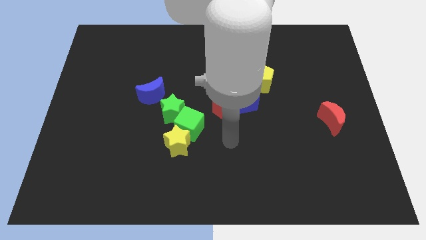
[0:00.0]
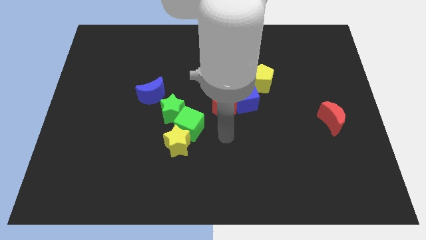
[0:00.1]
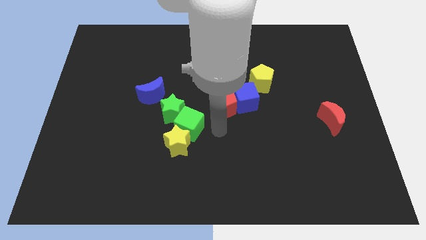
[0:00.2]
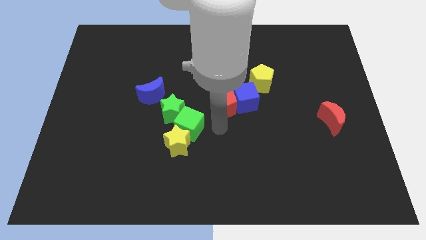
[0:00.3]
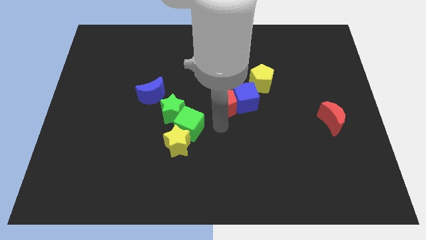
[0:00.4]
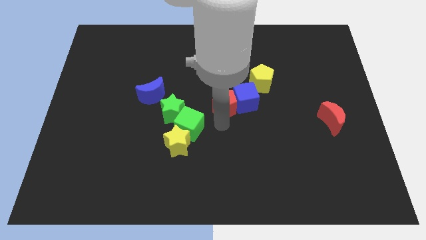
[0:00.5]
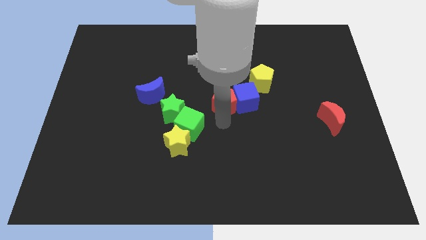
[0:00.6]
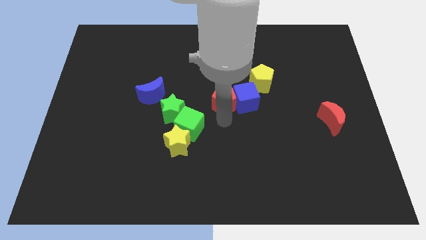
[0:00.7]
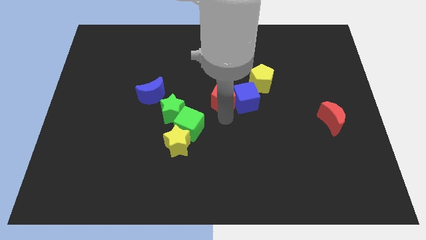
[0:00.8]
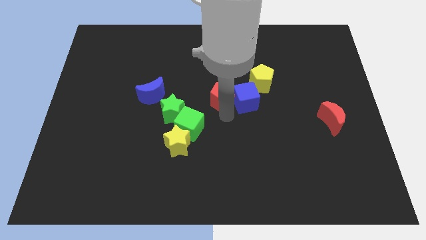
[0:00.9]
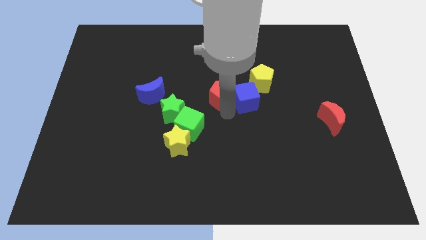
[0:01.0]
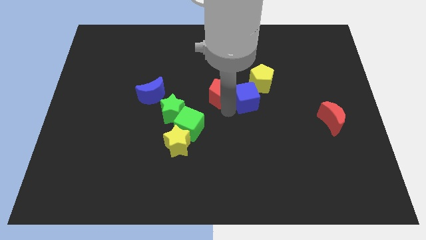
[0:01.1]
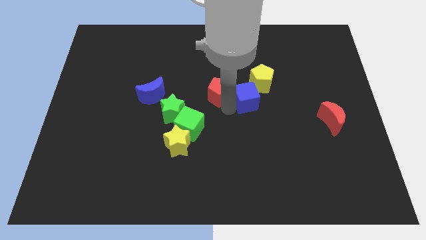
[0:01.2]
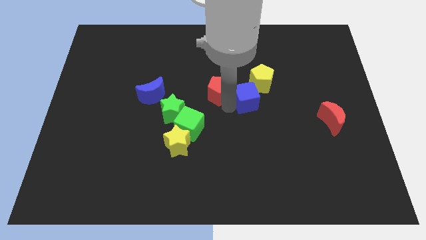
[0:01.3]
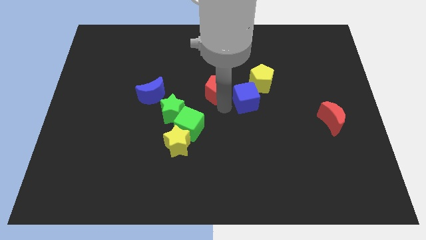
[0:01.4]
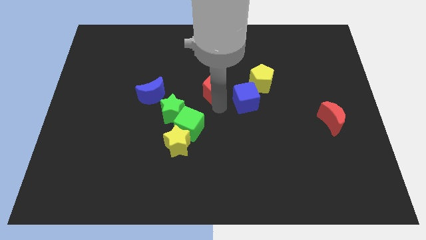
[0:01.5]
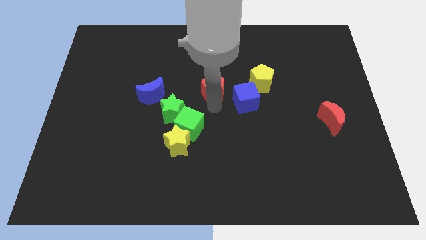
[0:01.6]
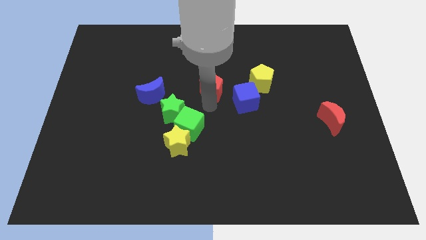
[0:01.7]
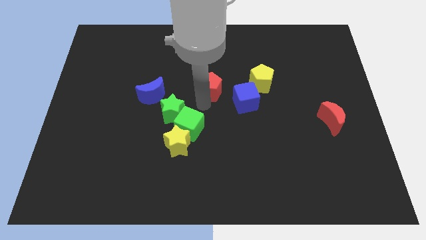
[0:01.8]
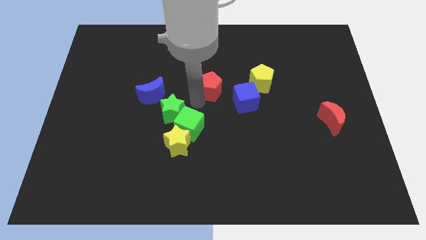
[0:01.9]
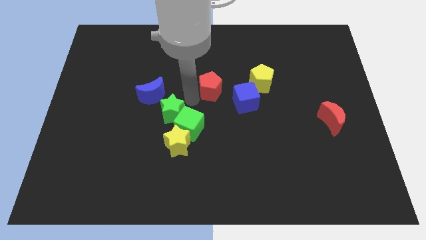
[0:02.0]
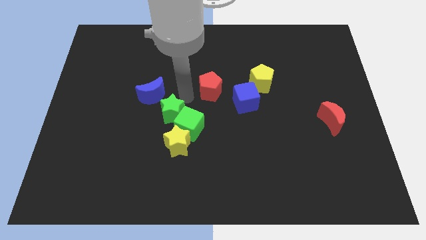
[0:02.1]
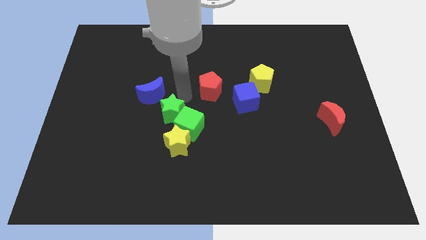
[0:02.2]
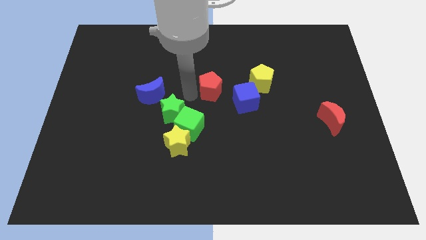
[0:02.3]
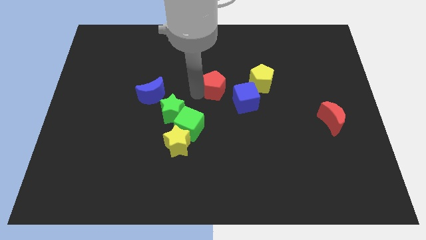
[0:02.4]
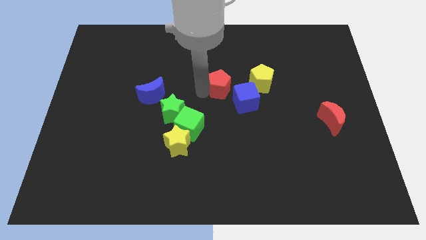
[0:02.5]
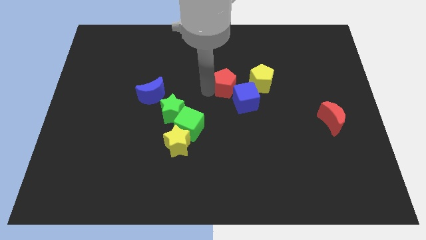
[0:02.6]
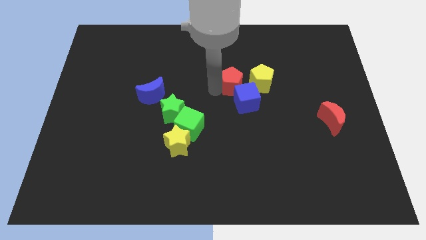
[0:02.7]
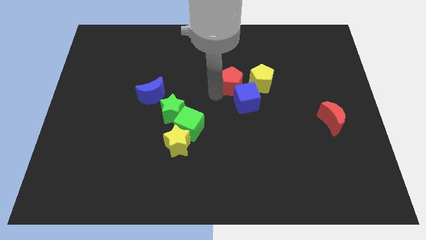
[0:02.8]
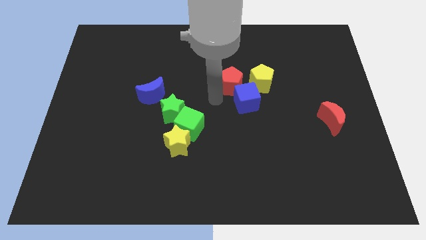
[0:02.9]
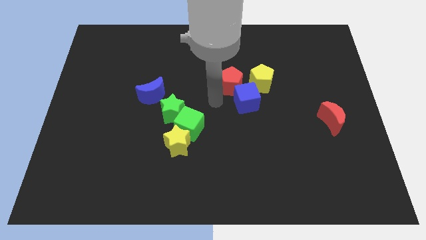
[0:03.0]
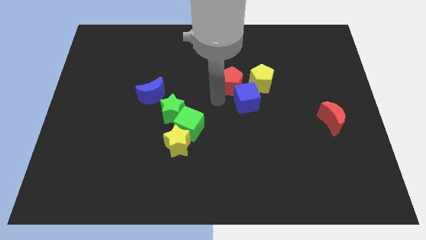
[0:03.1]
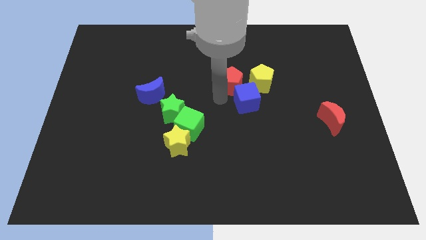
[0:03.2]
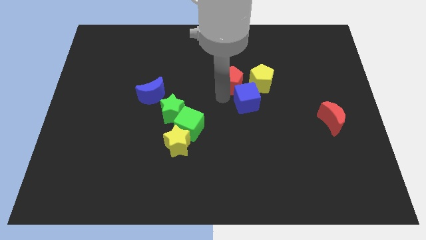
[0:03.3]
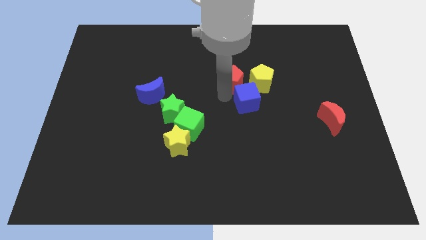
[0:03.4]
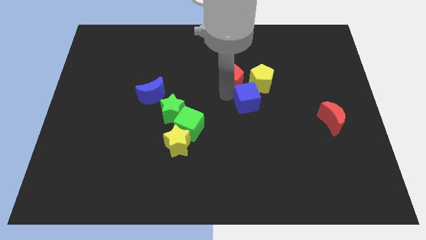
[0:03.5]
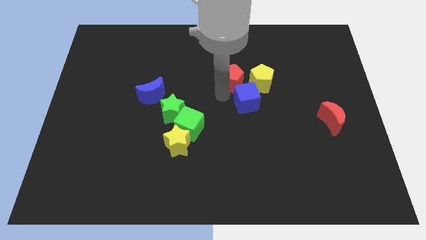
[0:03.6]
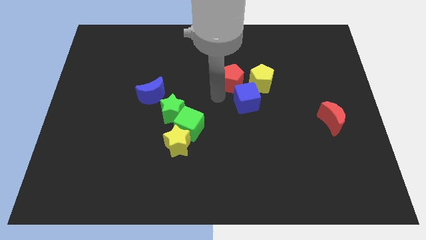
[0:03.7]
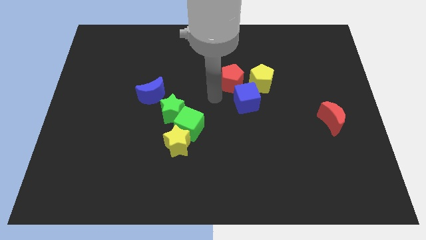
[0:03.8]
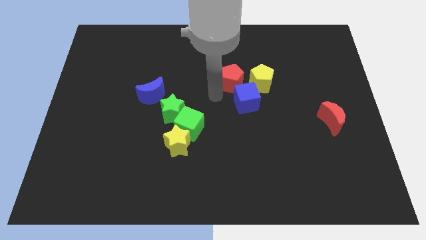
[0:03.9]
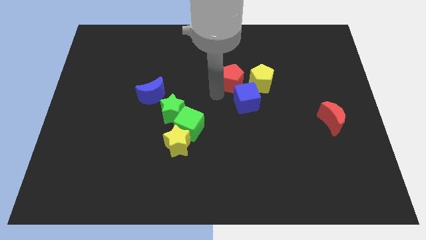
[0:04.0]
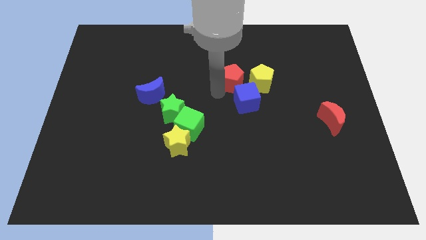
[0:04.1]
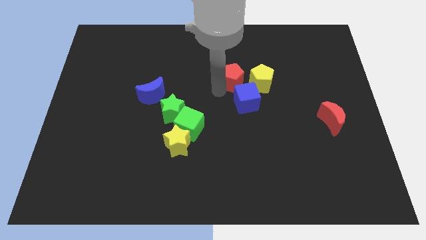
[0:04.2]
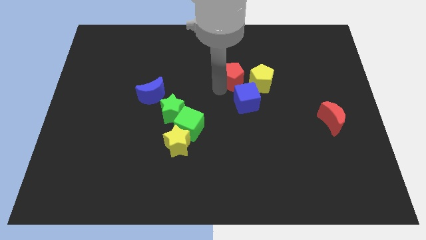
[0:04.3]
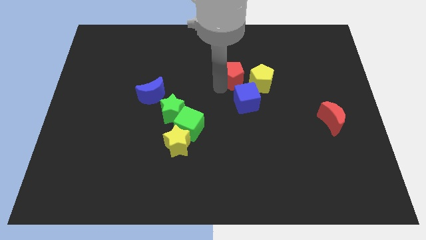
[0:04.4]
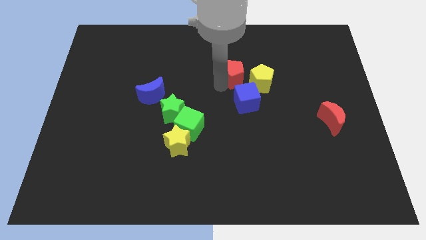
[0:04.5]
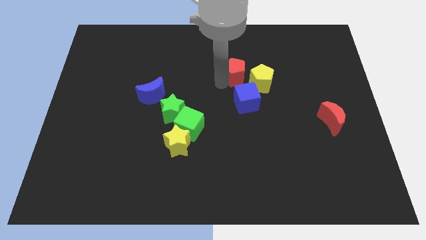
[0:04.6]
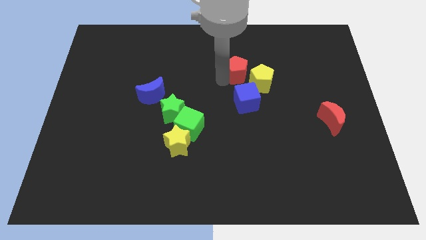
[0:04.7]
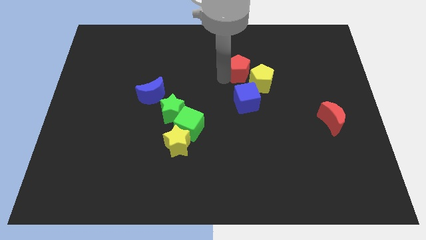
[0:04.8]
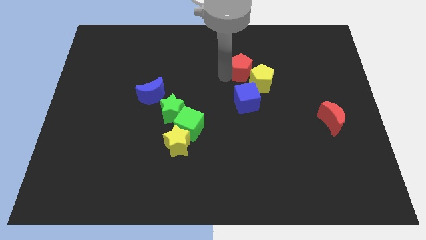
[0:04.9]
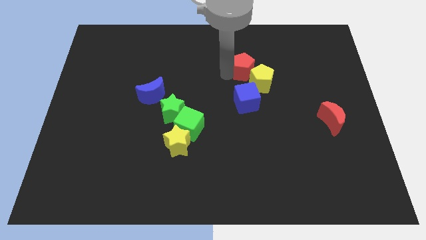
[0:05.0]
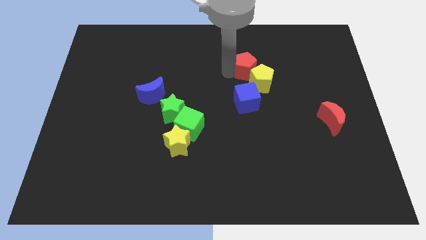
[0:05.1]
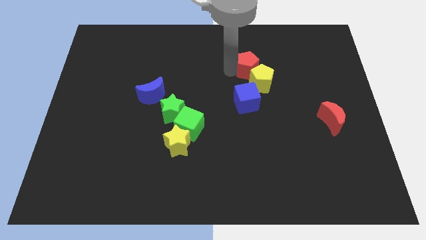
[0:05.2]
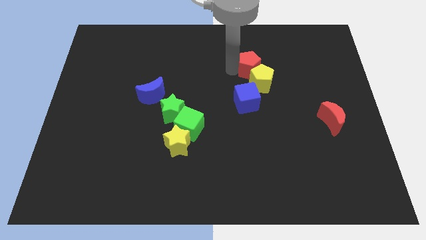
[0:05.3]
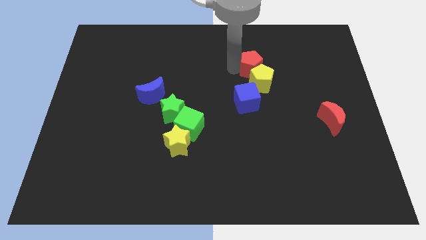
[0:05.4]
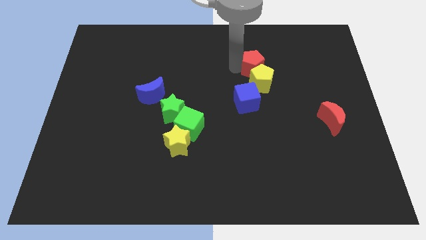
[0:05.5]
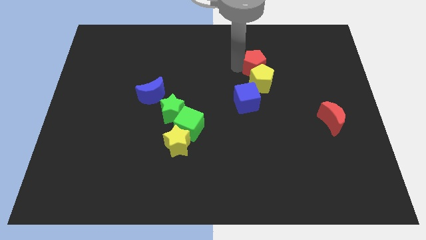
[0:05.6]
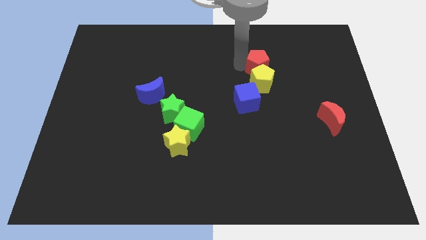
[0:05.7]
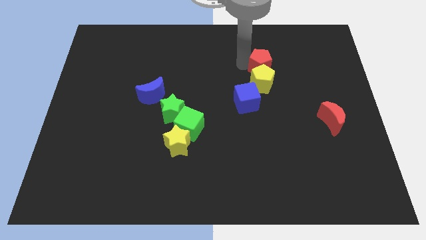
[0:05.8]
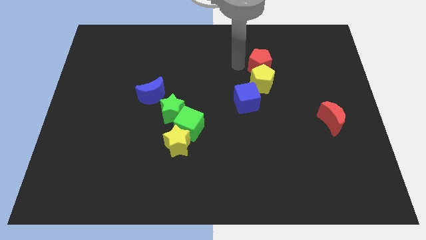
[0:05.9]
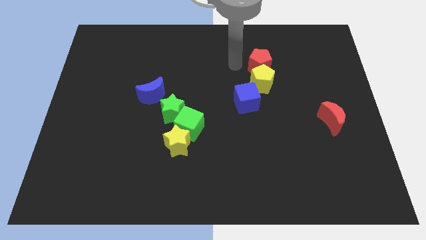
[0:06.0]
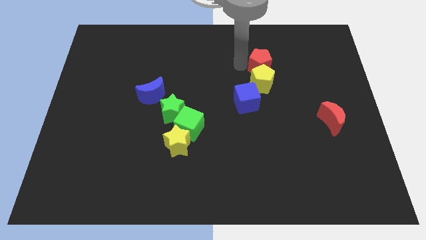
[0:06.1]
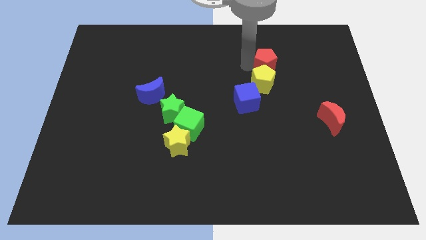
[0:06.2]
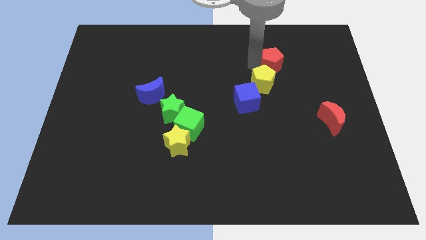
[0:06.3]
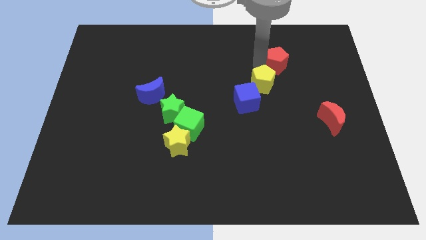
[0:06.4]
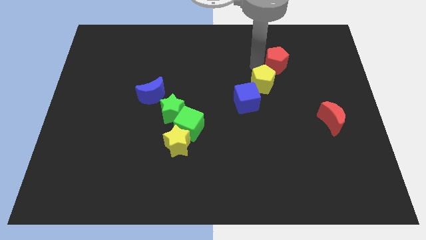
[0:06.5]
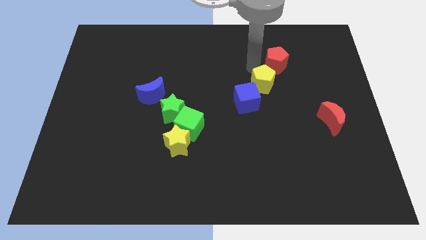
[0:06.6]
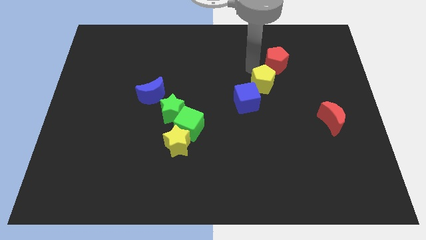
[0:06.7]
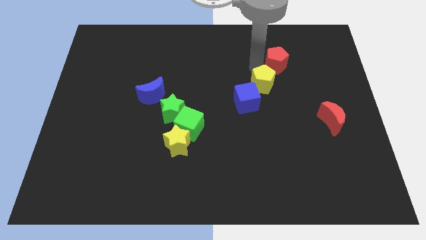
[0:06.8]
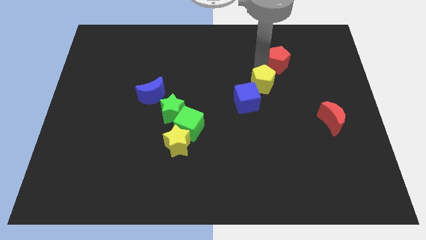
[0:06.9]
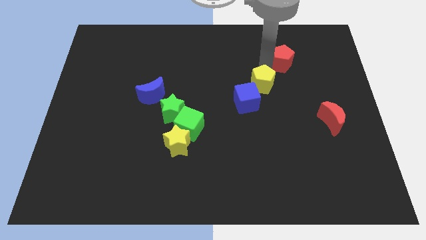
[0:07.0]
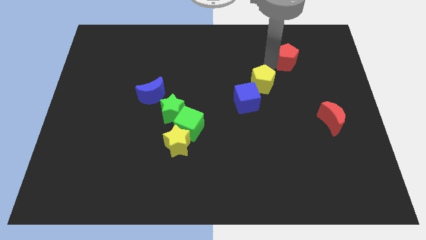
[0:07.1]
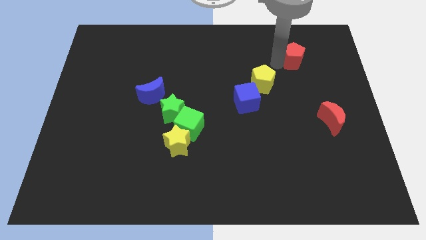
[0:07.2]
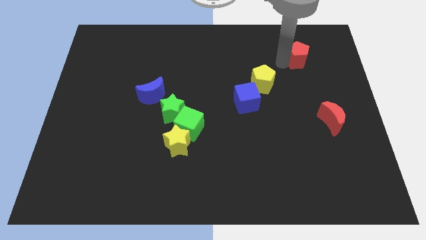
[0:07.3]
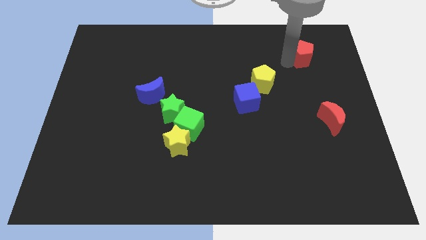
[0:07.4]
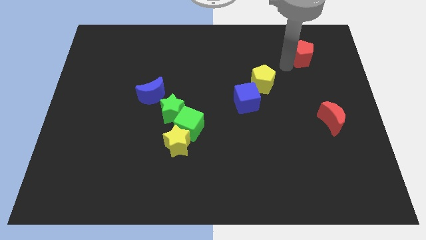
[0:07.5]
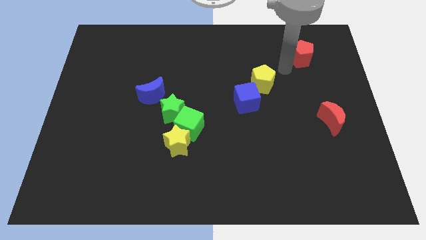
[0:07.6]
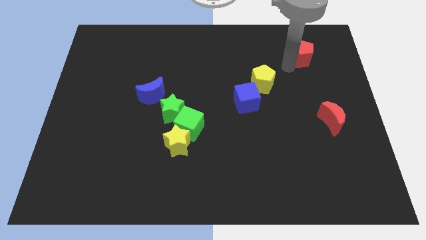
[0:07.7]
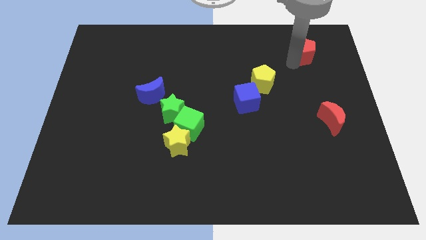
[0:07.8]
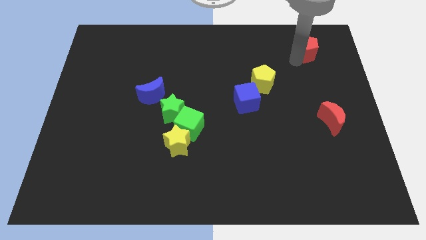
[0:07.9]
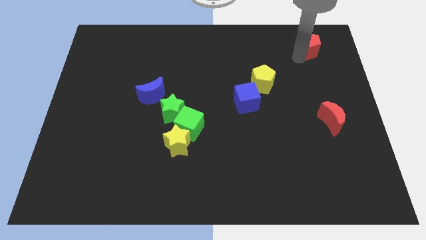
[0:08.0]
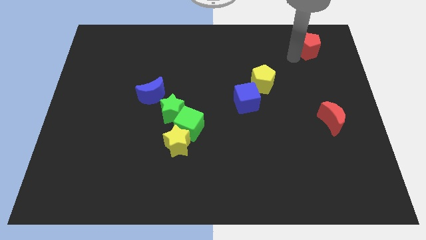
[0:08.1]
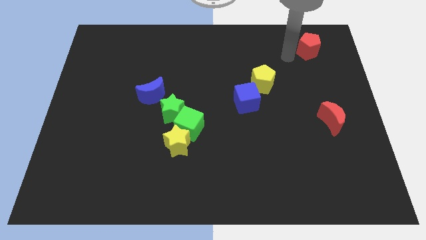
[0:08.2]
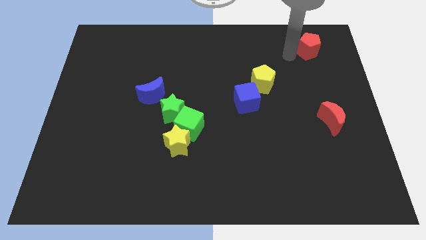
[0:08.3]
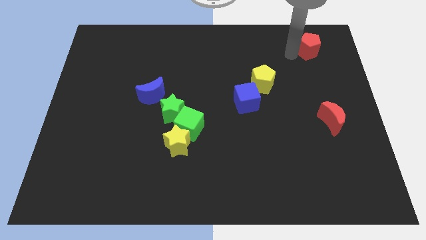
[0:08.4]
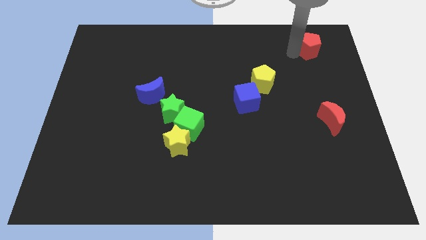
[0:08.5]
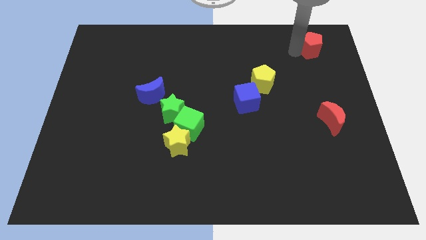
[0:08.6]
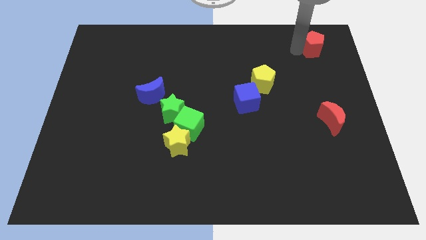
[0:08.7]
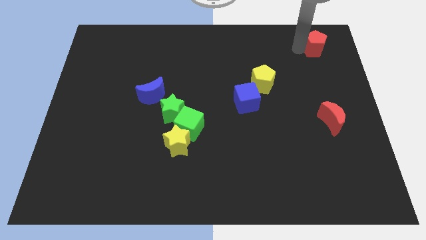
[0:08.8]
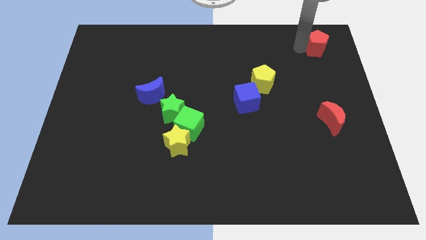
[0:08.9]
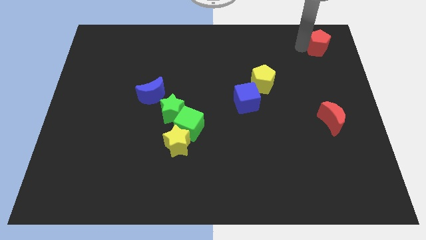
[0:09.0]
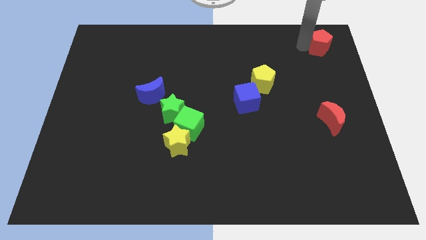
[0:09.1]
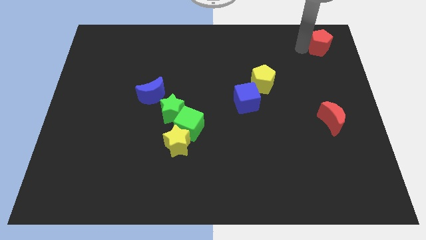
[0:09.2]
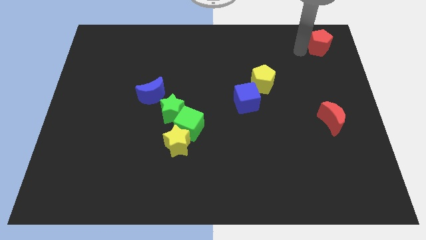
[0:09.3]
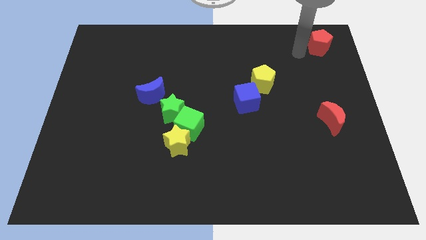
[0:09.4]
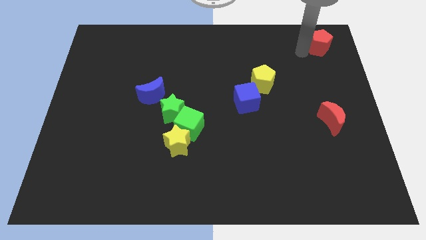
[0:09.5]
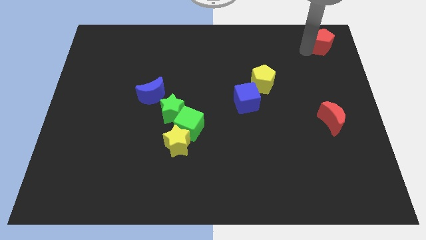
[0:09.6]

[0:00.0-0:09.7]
slide the red pentagon to the upper right corner
